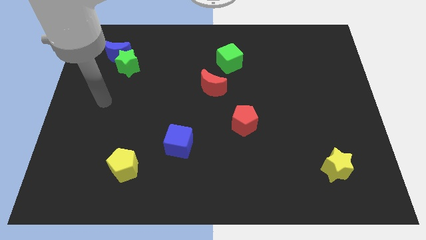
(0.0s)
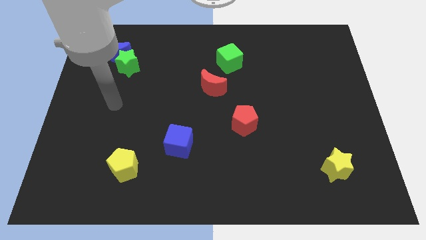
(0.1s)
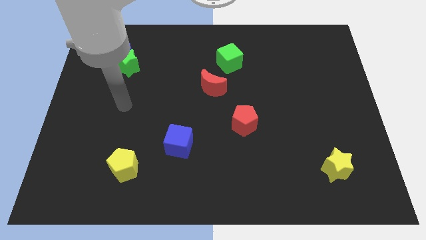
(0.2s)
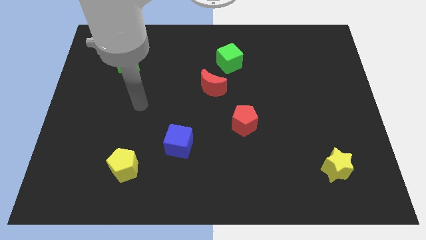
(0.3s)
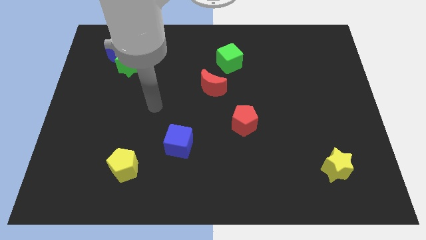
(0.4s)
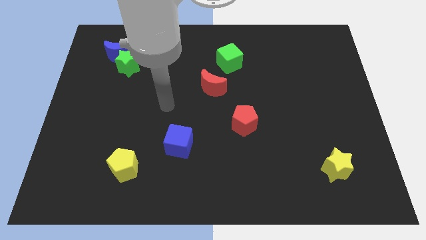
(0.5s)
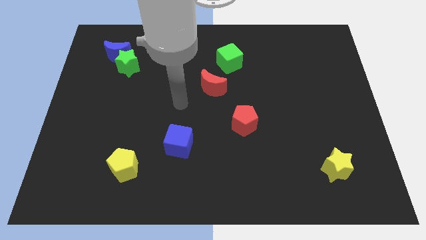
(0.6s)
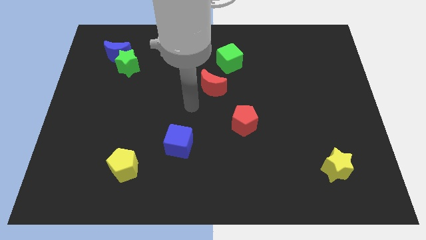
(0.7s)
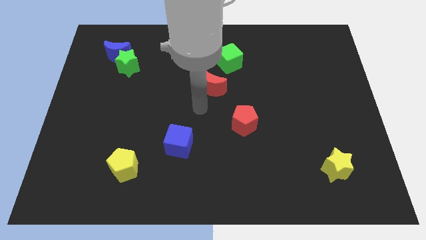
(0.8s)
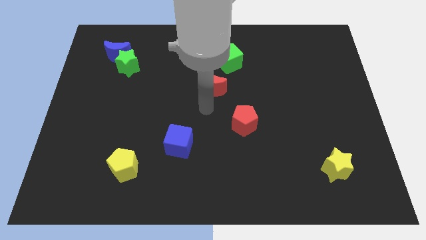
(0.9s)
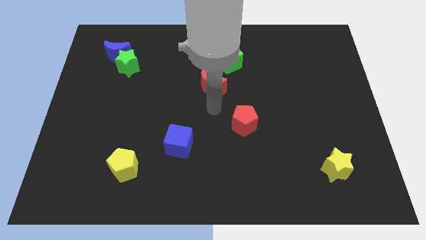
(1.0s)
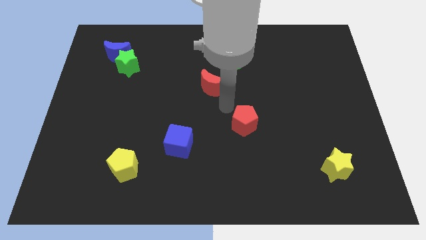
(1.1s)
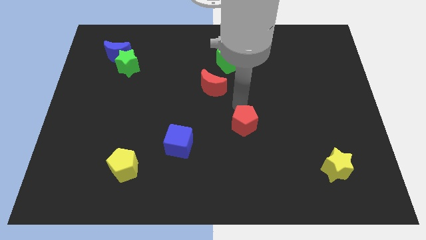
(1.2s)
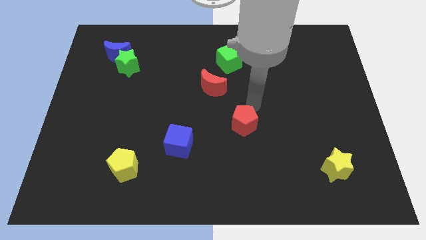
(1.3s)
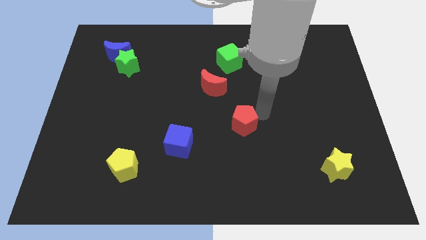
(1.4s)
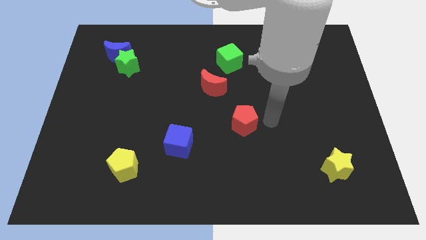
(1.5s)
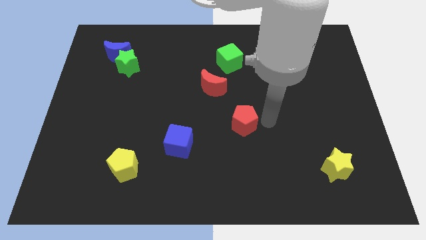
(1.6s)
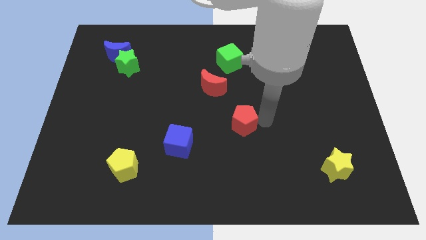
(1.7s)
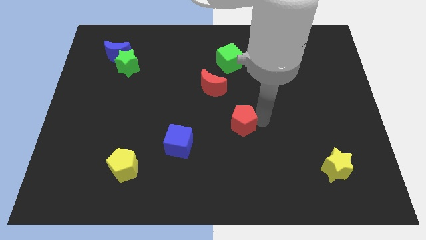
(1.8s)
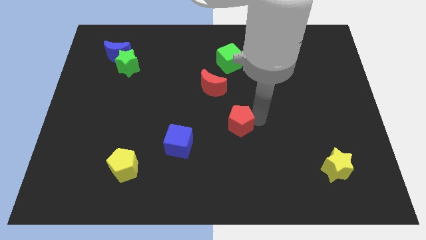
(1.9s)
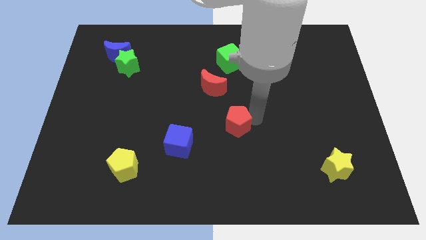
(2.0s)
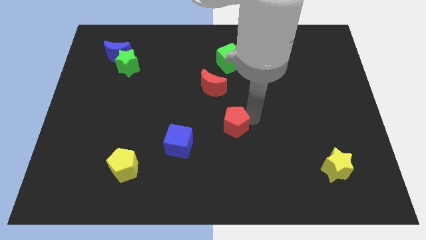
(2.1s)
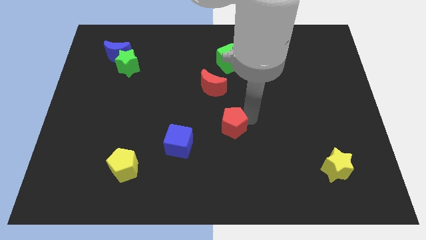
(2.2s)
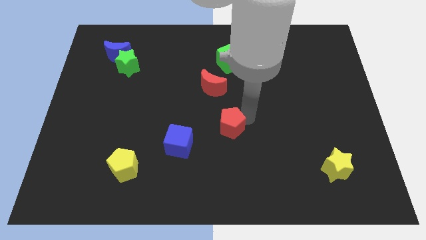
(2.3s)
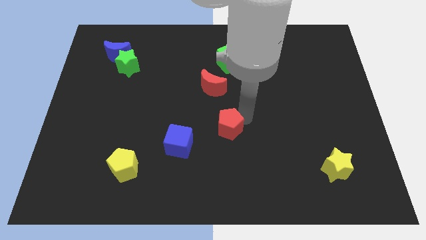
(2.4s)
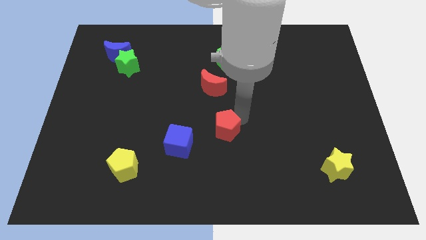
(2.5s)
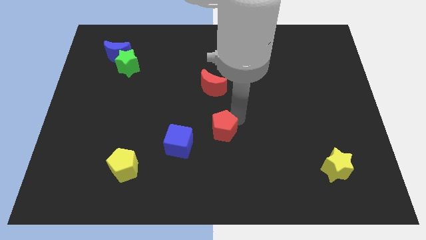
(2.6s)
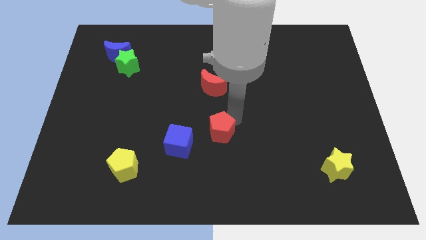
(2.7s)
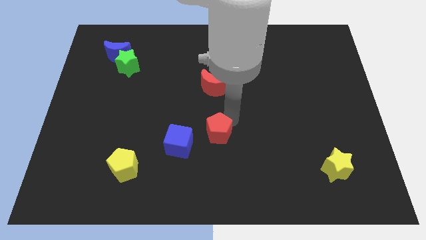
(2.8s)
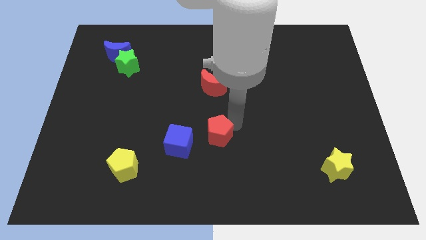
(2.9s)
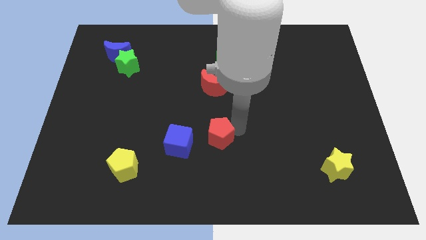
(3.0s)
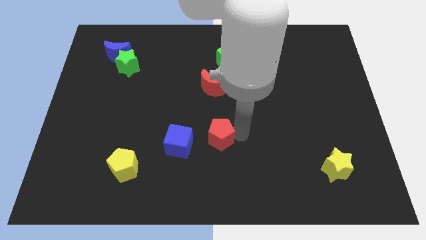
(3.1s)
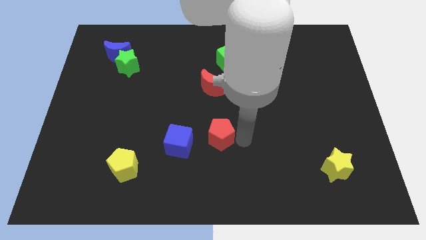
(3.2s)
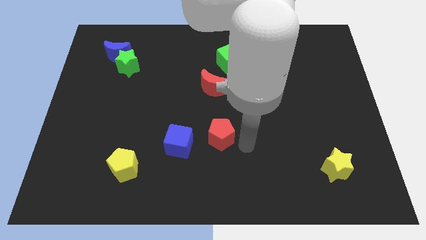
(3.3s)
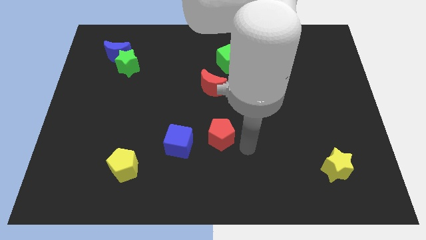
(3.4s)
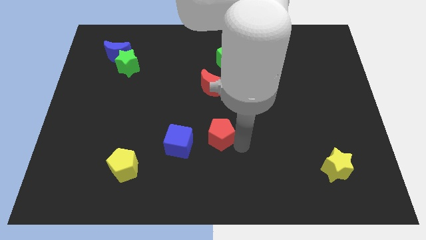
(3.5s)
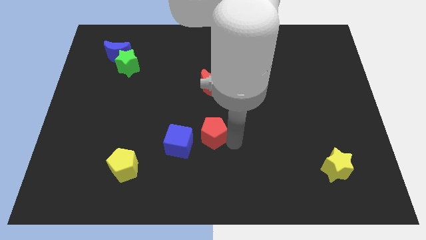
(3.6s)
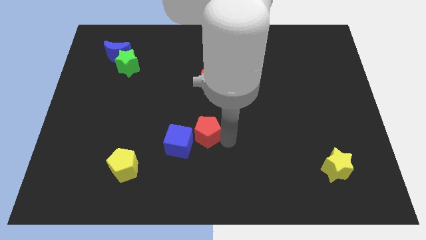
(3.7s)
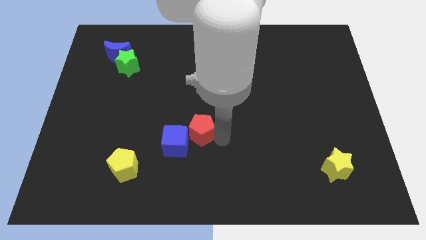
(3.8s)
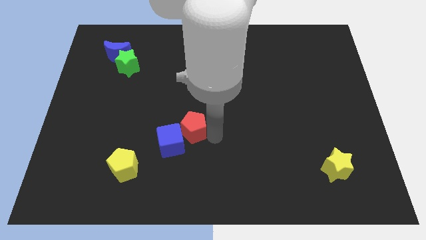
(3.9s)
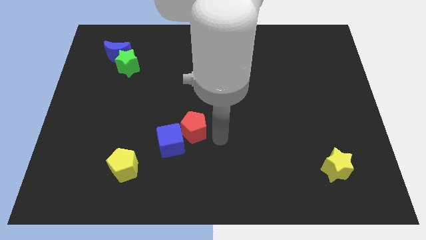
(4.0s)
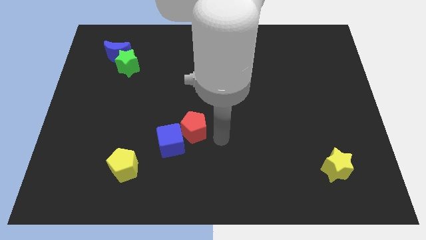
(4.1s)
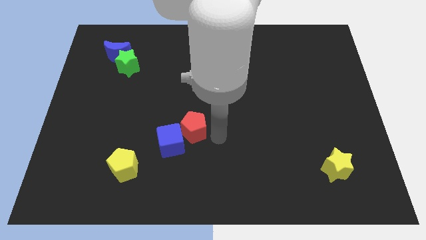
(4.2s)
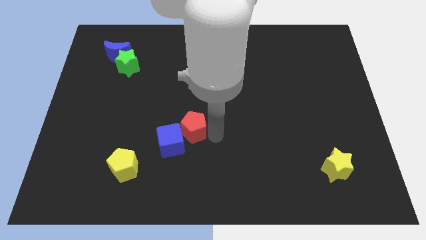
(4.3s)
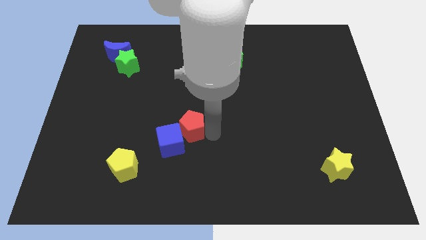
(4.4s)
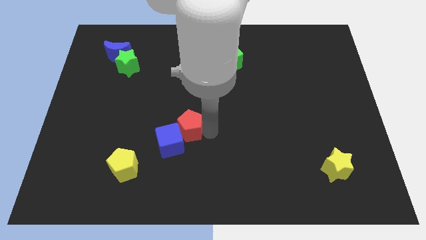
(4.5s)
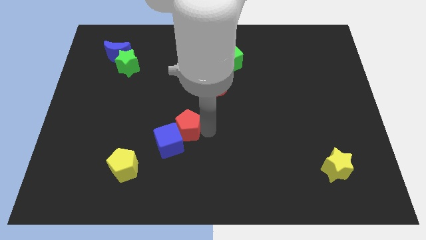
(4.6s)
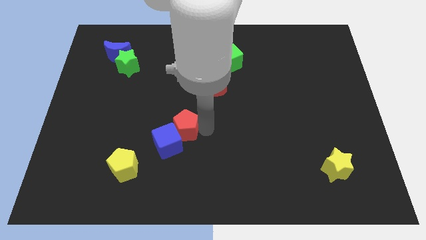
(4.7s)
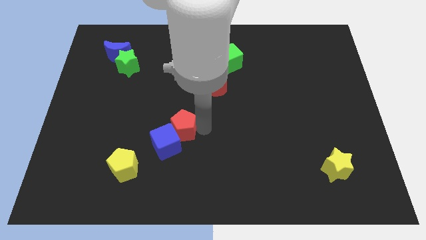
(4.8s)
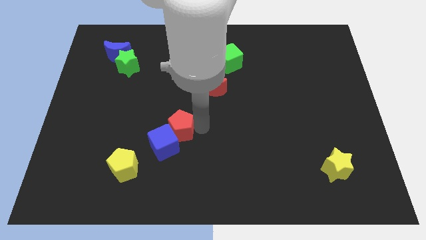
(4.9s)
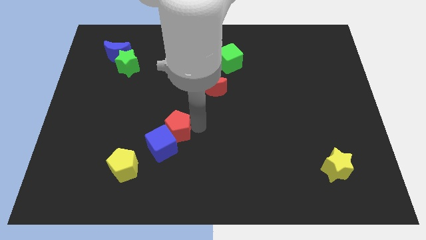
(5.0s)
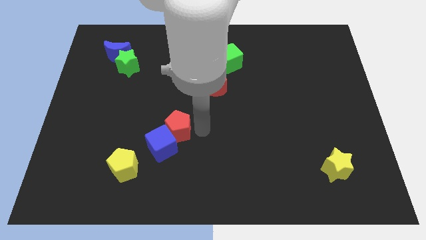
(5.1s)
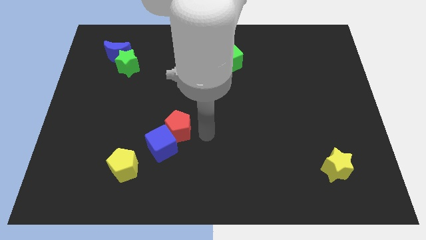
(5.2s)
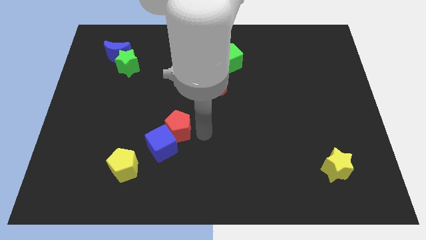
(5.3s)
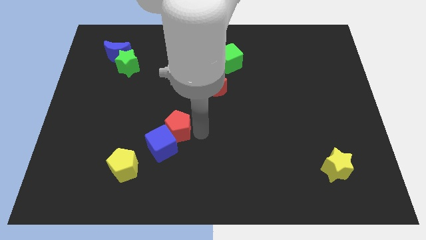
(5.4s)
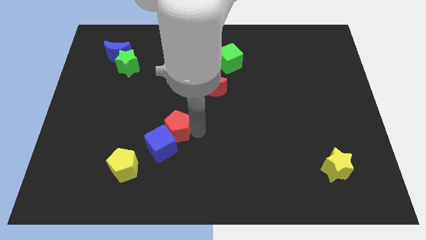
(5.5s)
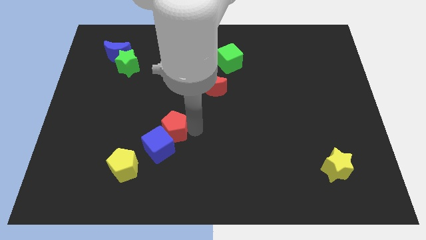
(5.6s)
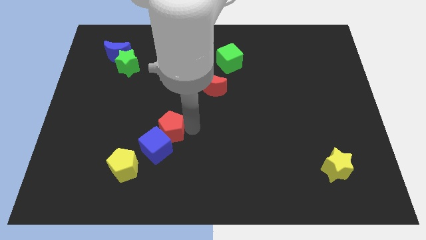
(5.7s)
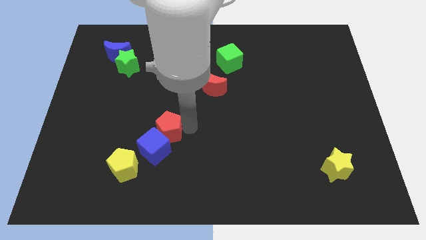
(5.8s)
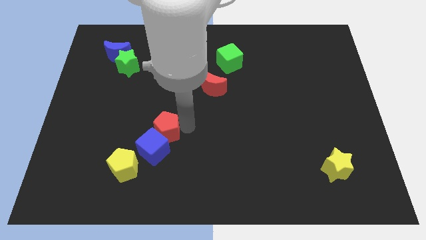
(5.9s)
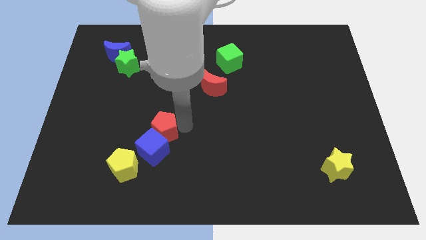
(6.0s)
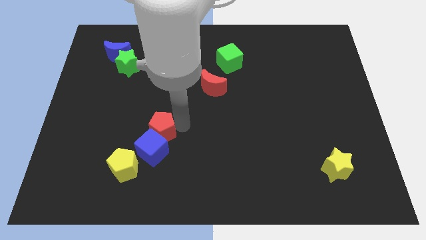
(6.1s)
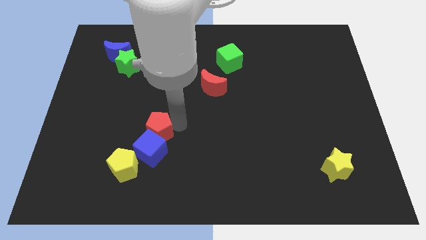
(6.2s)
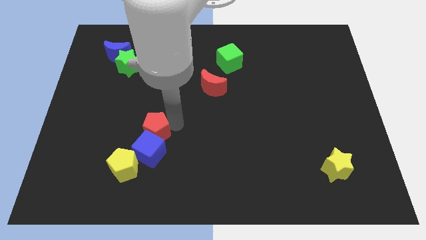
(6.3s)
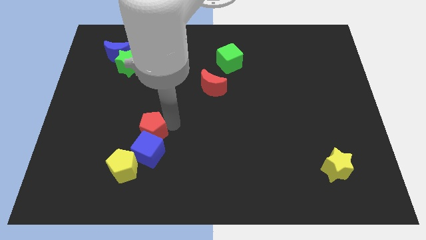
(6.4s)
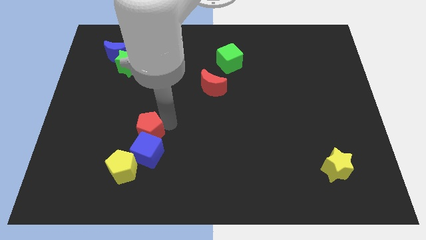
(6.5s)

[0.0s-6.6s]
push the red pentagon to the top side of the yellow pentagon

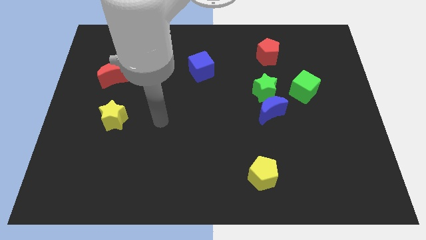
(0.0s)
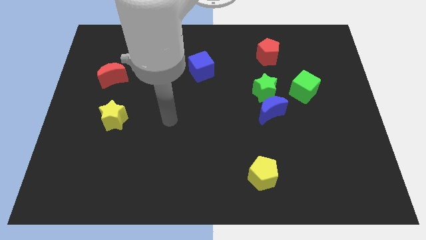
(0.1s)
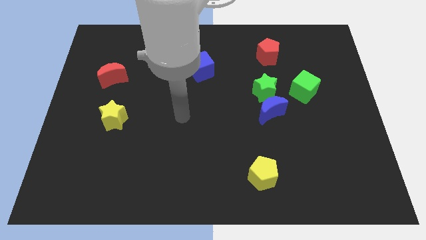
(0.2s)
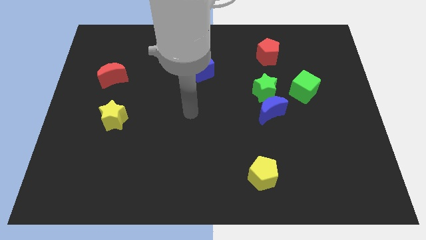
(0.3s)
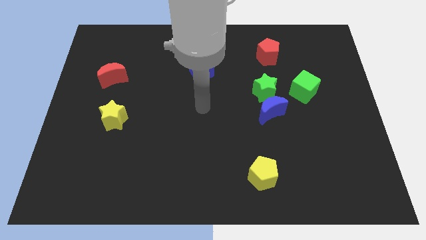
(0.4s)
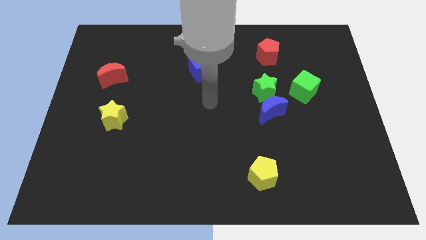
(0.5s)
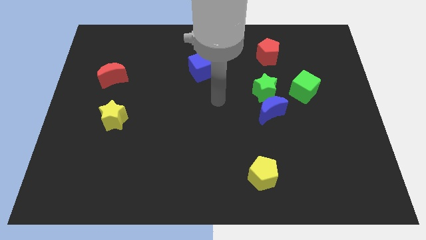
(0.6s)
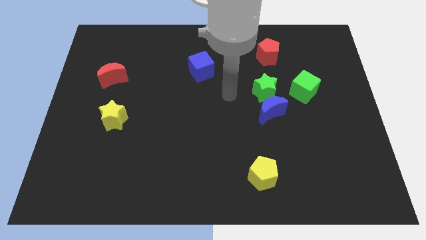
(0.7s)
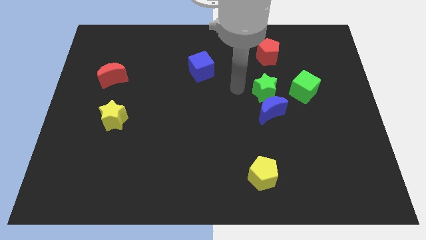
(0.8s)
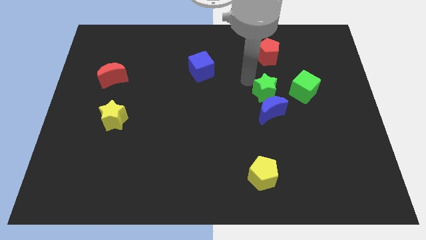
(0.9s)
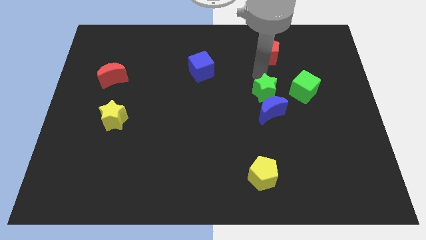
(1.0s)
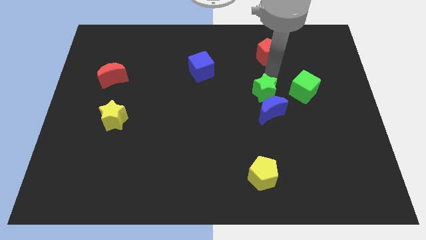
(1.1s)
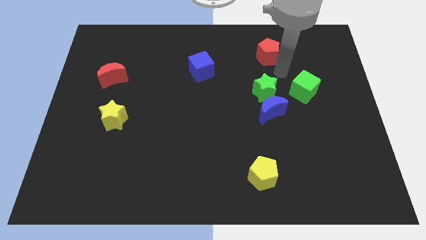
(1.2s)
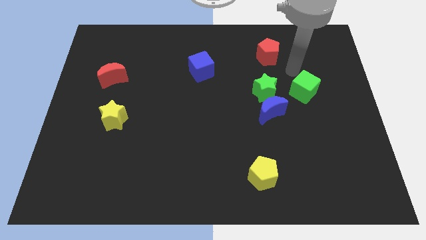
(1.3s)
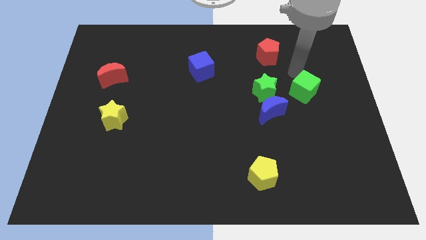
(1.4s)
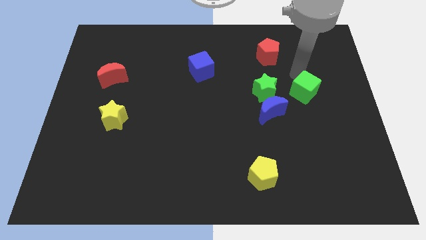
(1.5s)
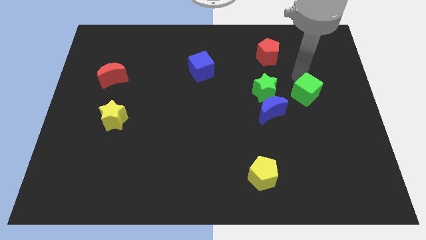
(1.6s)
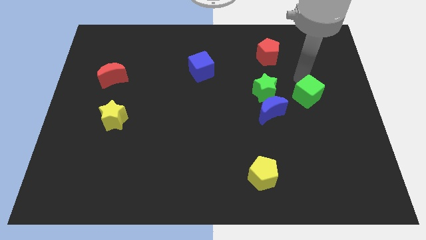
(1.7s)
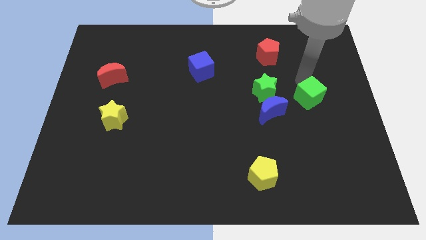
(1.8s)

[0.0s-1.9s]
move the green cube to the right side of the blue moon

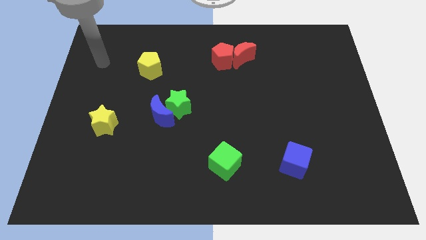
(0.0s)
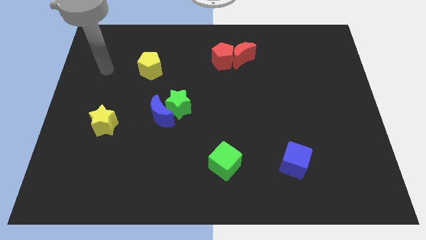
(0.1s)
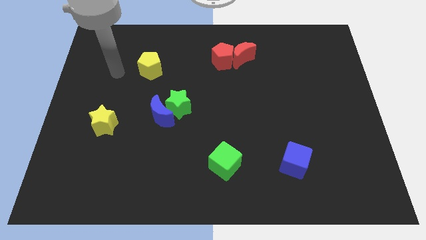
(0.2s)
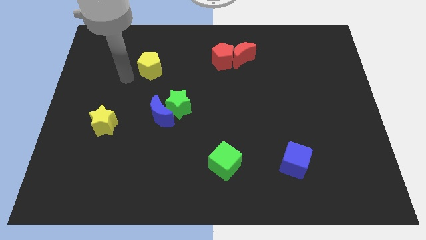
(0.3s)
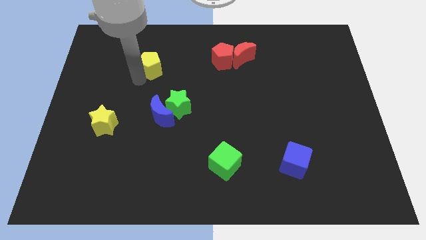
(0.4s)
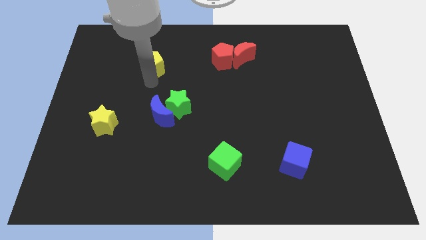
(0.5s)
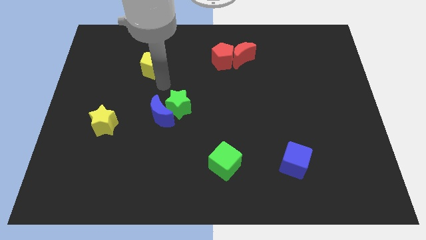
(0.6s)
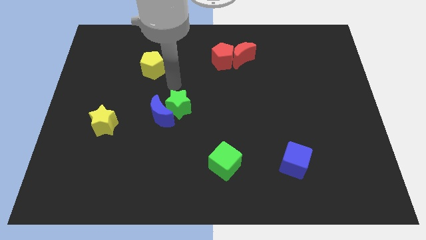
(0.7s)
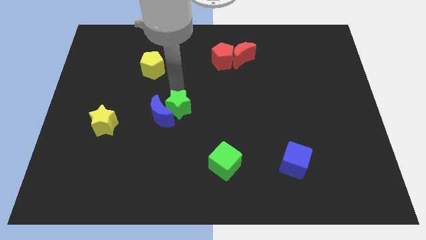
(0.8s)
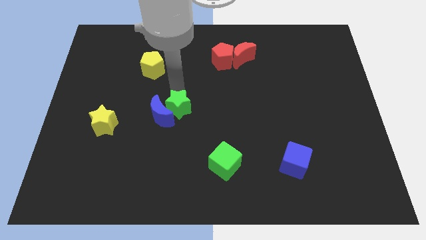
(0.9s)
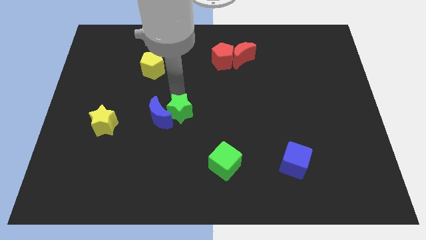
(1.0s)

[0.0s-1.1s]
slide the green star diagonally down and to the right of the blue moon
